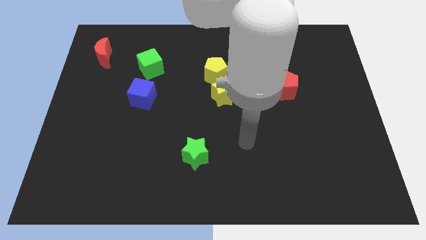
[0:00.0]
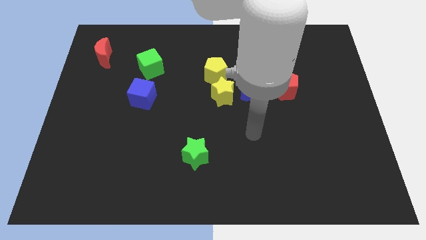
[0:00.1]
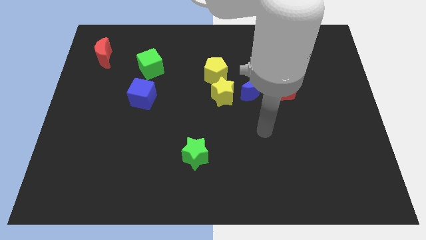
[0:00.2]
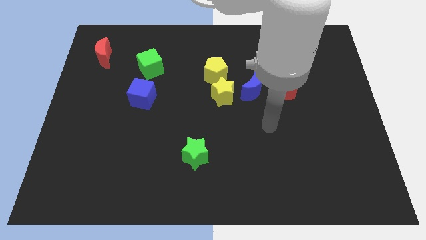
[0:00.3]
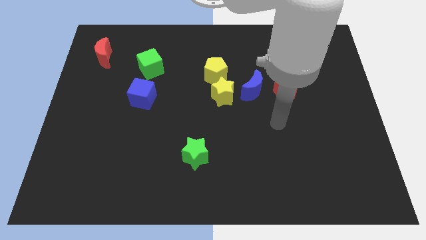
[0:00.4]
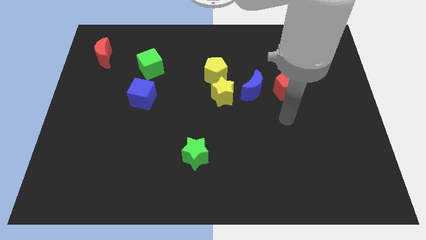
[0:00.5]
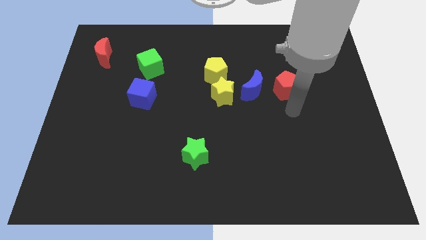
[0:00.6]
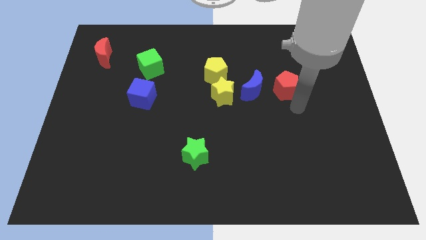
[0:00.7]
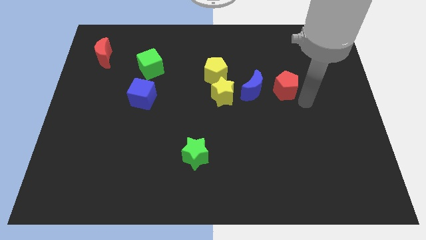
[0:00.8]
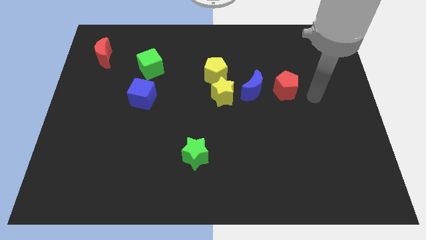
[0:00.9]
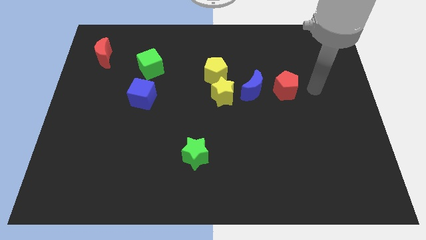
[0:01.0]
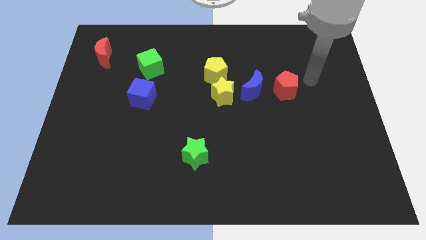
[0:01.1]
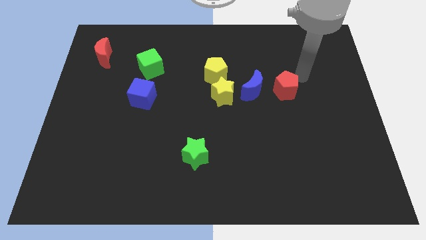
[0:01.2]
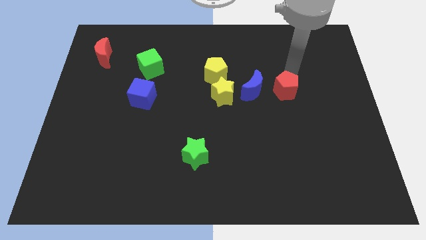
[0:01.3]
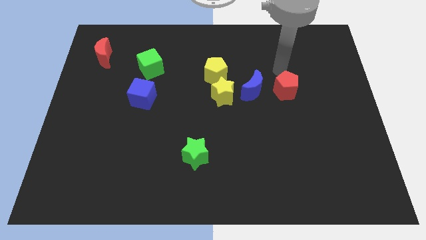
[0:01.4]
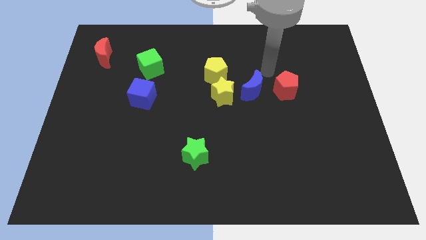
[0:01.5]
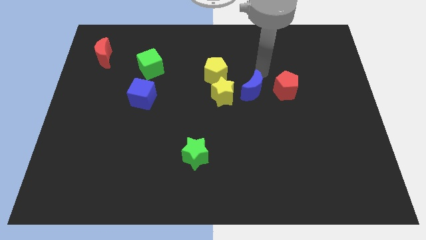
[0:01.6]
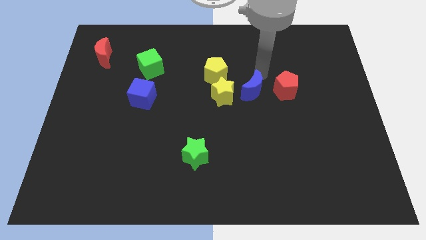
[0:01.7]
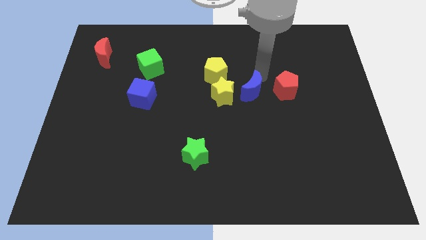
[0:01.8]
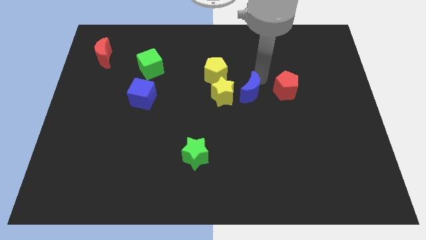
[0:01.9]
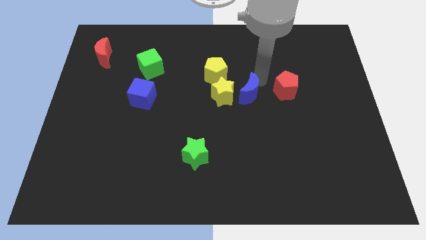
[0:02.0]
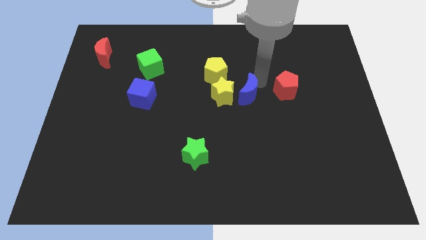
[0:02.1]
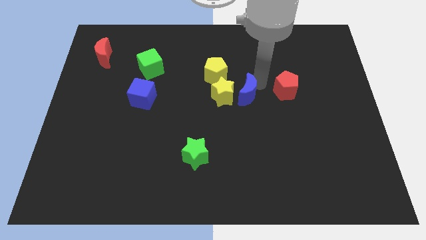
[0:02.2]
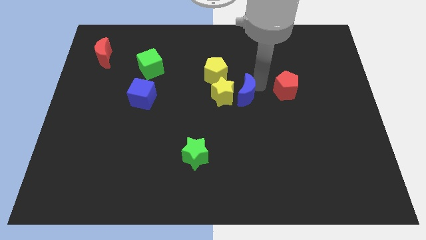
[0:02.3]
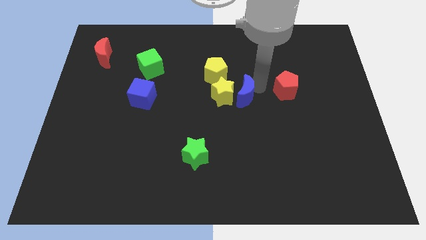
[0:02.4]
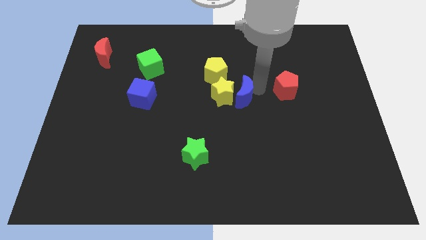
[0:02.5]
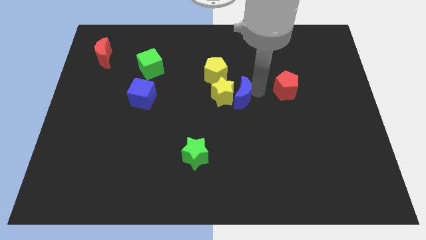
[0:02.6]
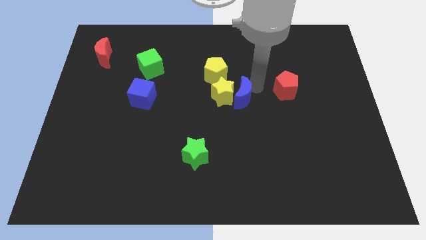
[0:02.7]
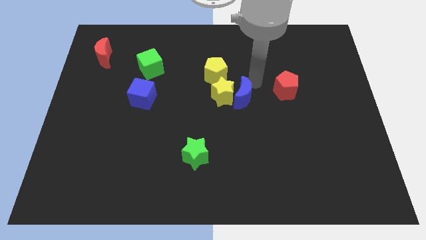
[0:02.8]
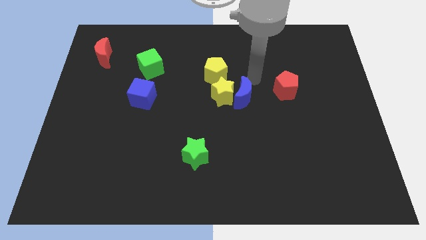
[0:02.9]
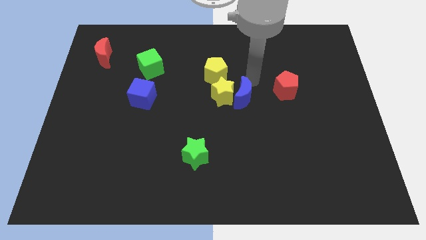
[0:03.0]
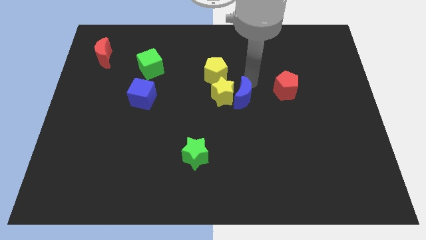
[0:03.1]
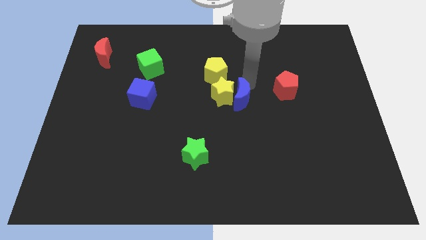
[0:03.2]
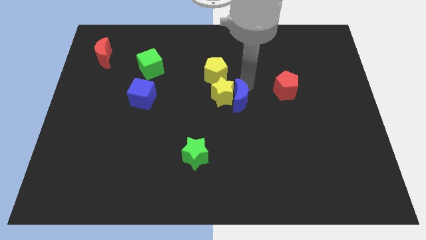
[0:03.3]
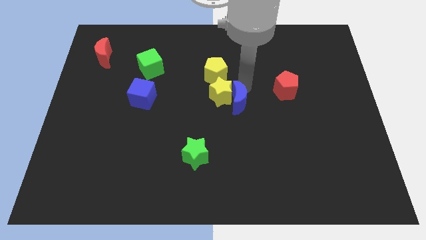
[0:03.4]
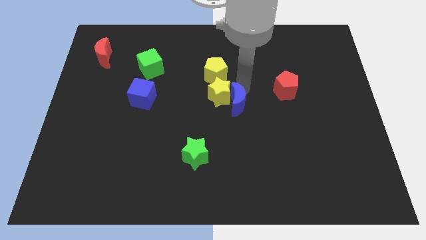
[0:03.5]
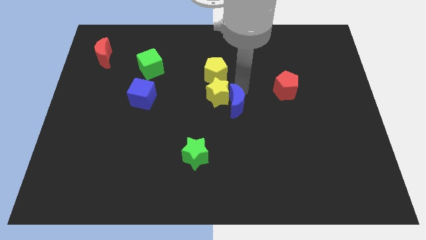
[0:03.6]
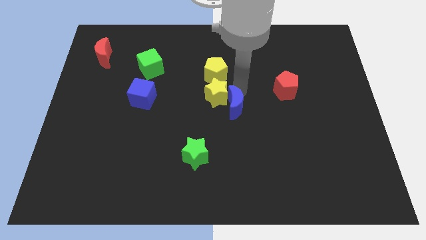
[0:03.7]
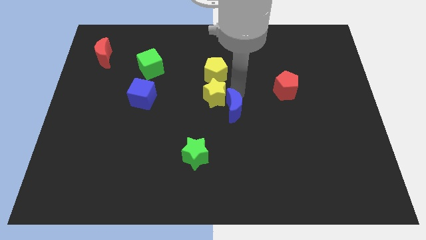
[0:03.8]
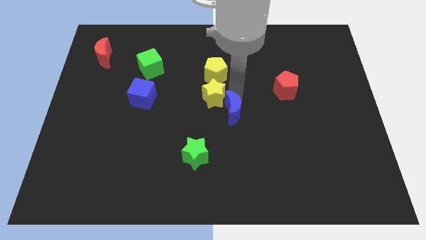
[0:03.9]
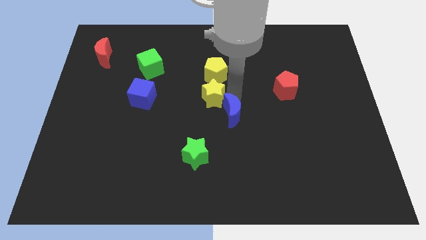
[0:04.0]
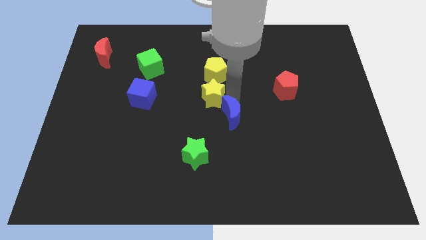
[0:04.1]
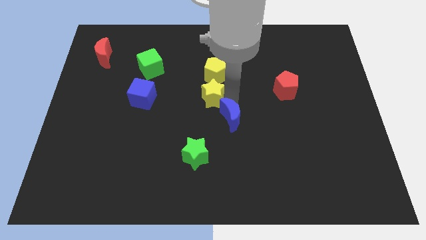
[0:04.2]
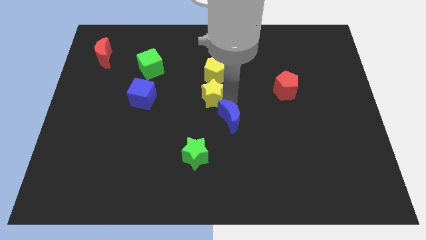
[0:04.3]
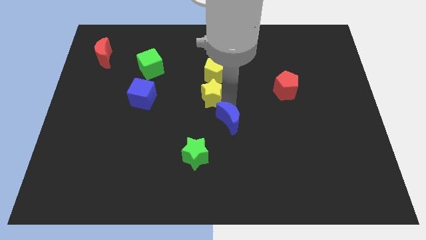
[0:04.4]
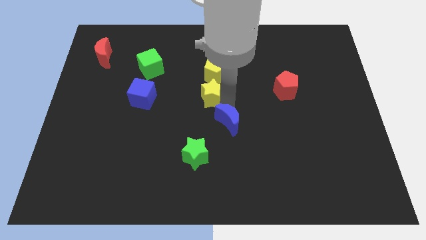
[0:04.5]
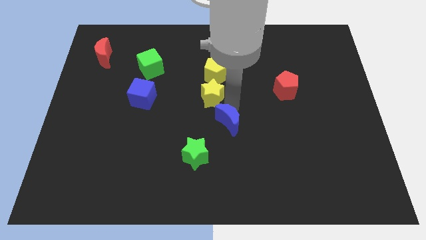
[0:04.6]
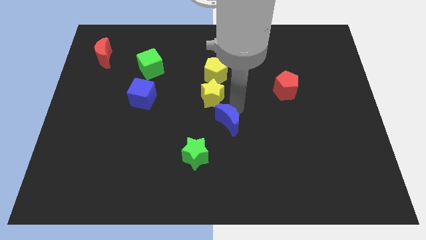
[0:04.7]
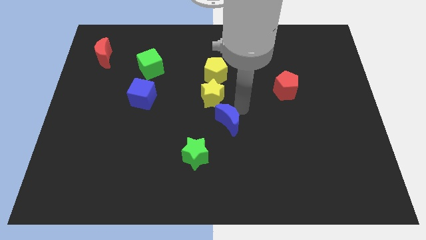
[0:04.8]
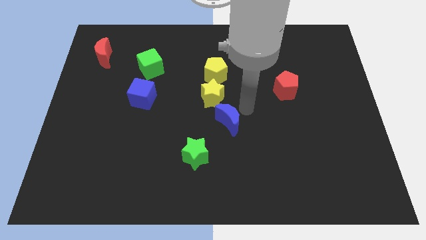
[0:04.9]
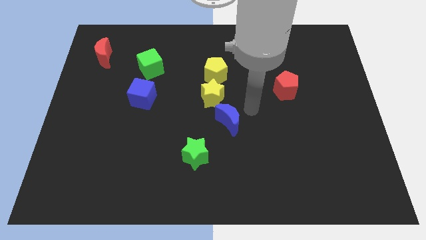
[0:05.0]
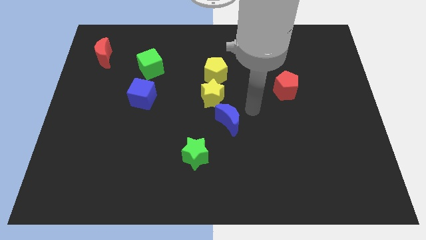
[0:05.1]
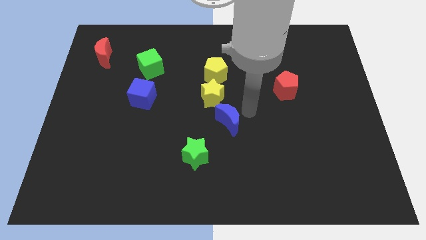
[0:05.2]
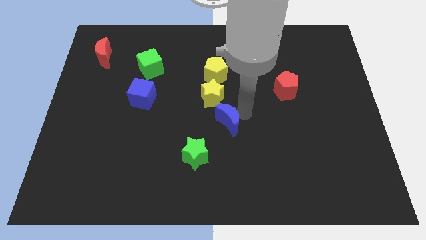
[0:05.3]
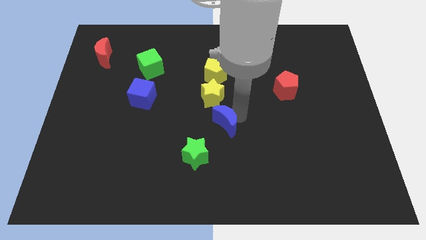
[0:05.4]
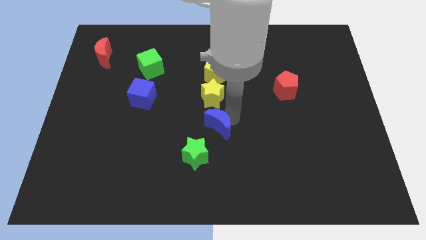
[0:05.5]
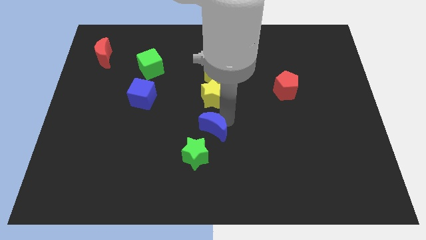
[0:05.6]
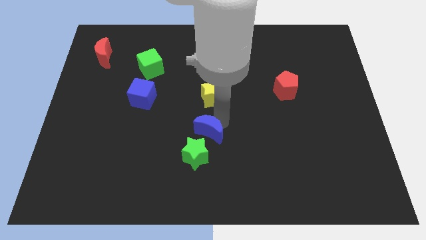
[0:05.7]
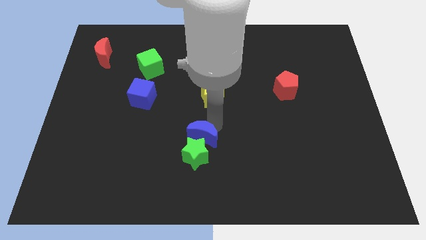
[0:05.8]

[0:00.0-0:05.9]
slide the blue moon to the green star

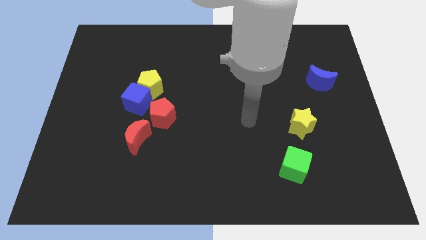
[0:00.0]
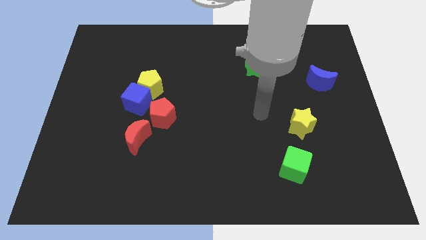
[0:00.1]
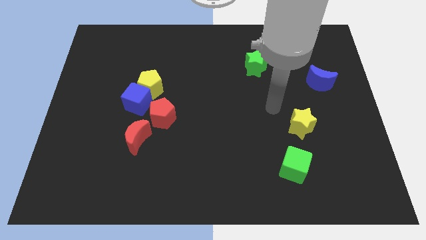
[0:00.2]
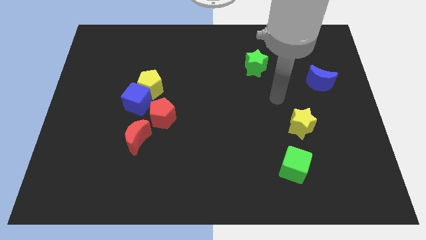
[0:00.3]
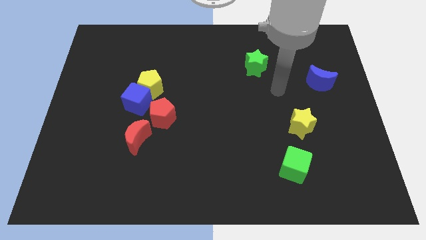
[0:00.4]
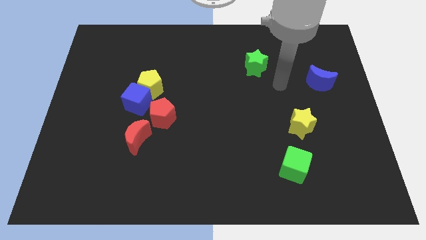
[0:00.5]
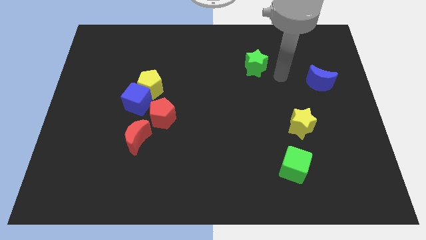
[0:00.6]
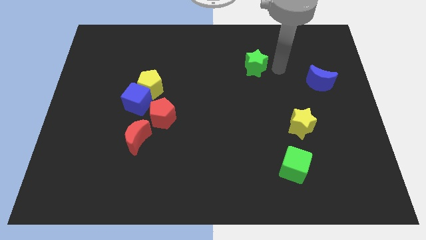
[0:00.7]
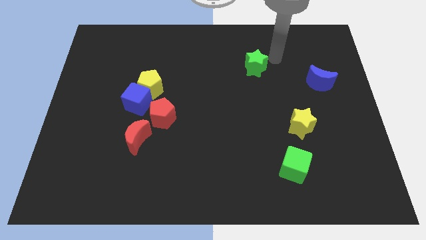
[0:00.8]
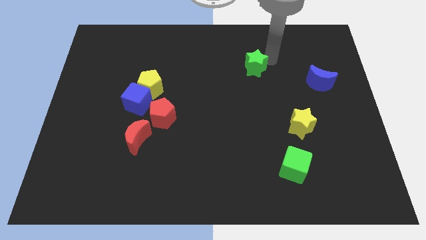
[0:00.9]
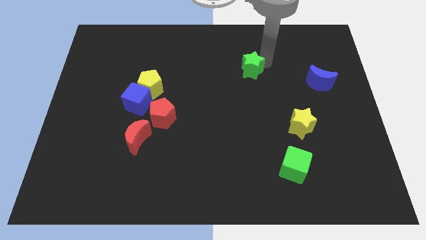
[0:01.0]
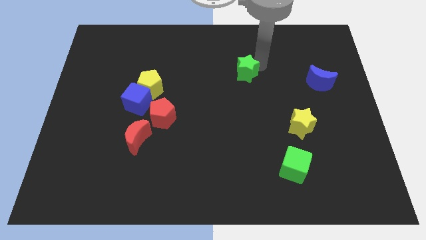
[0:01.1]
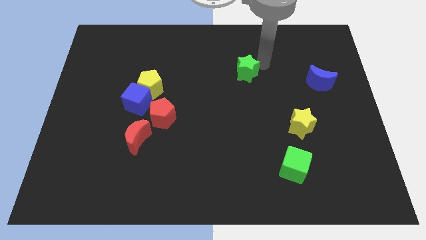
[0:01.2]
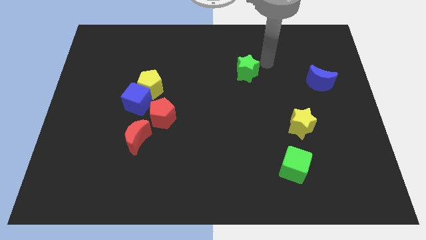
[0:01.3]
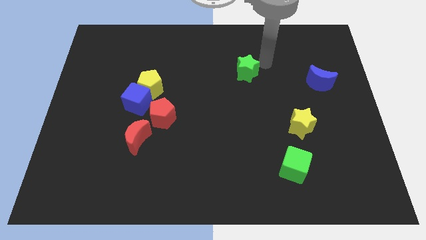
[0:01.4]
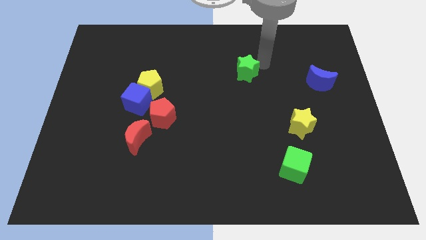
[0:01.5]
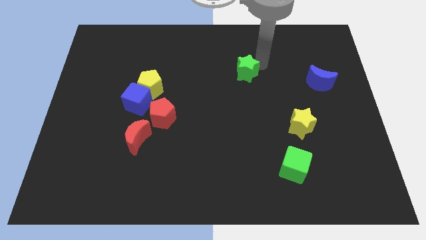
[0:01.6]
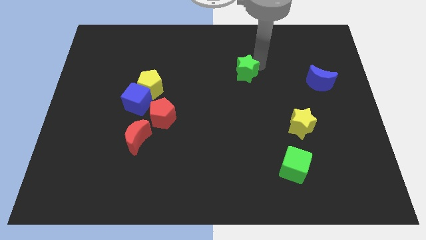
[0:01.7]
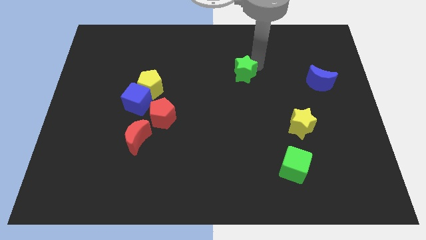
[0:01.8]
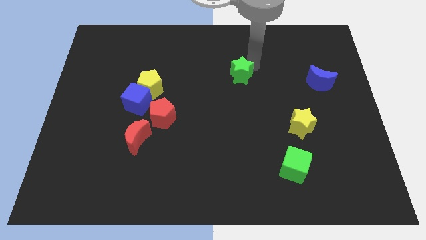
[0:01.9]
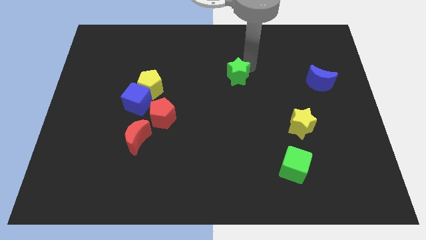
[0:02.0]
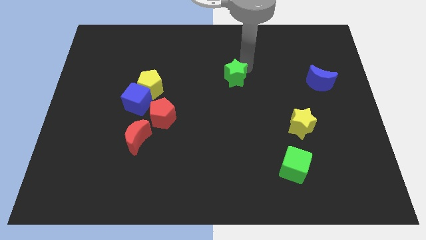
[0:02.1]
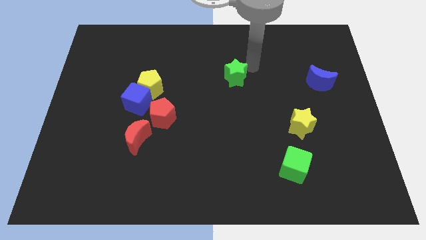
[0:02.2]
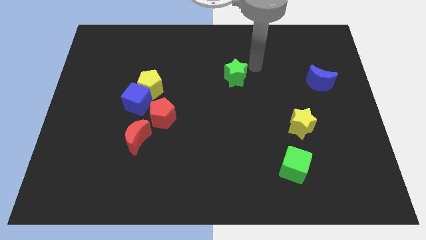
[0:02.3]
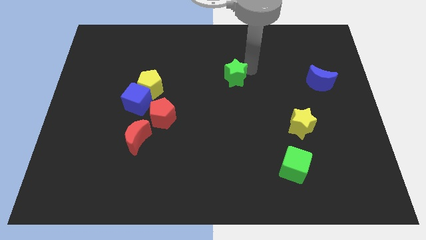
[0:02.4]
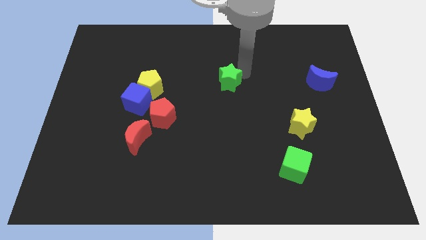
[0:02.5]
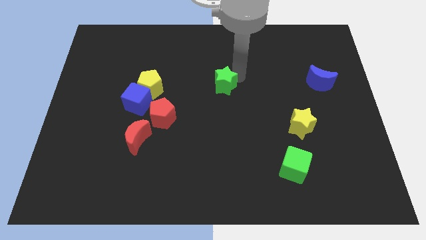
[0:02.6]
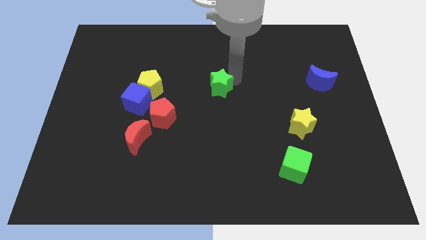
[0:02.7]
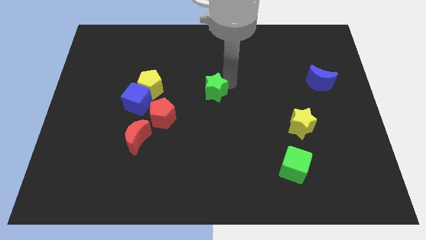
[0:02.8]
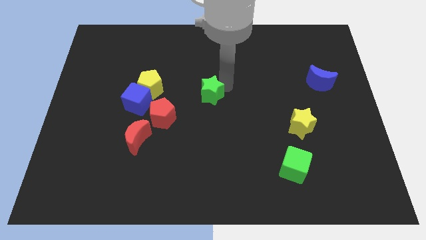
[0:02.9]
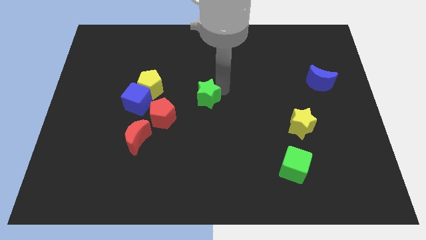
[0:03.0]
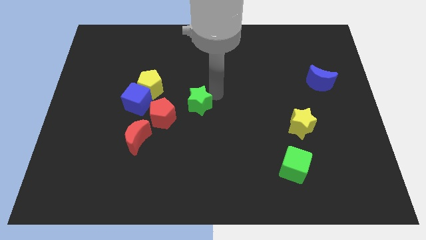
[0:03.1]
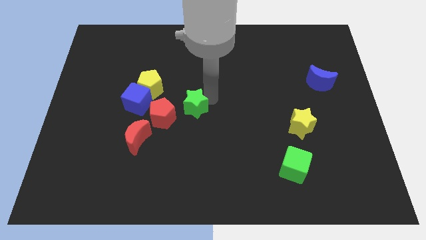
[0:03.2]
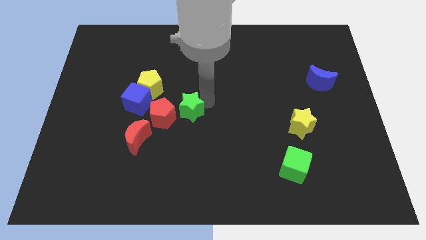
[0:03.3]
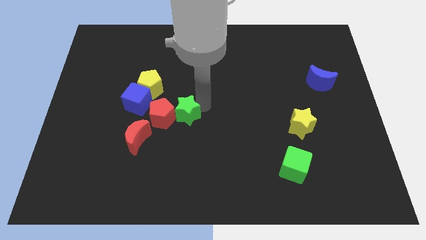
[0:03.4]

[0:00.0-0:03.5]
put the green star next to the red pentagon
